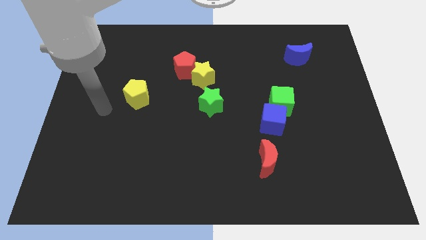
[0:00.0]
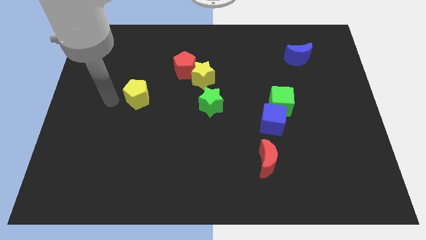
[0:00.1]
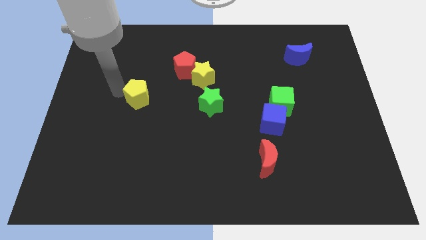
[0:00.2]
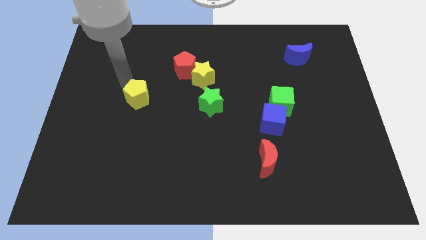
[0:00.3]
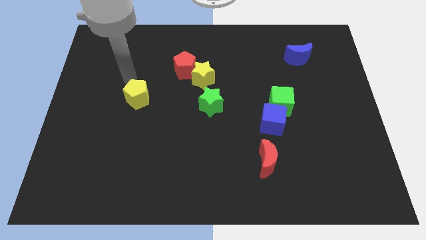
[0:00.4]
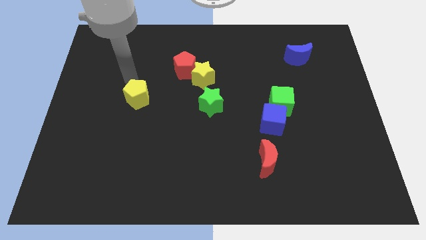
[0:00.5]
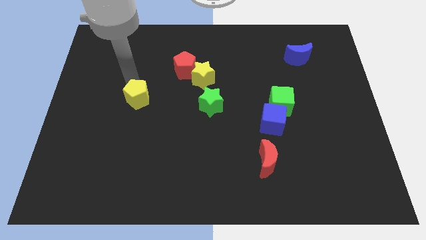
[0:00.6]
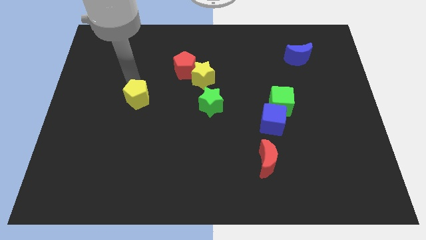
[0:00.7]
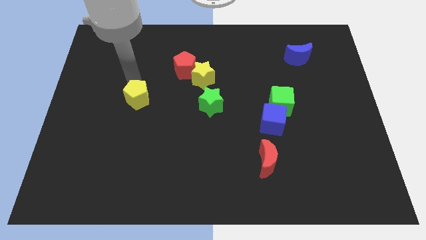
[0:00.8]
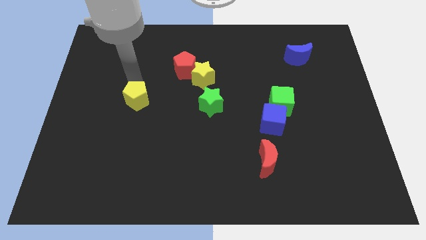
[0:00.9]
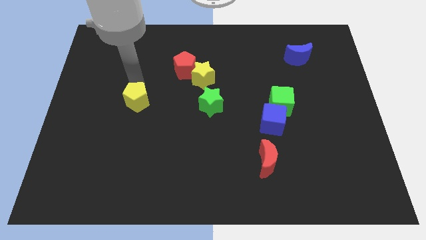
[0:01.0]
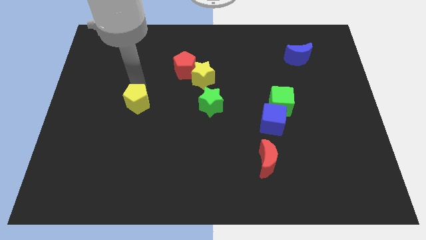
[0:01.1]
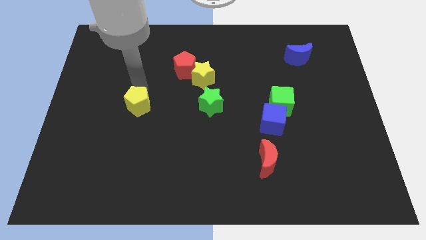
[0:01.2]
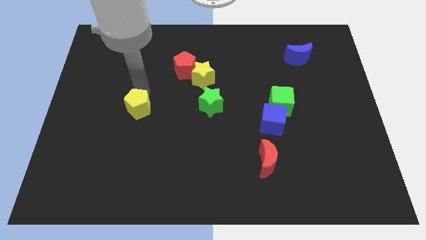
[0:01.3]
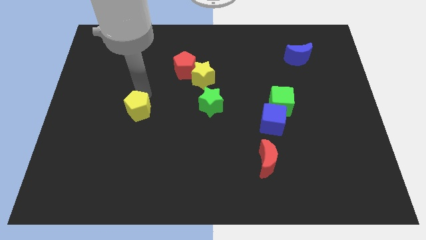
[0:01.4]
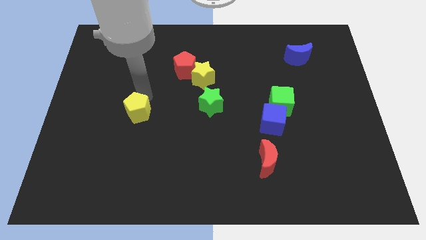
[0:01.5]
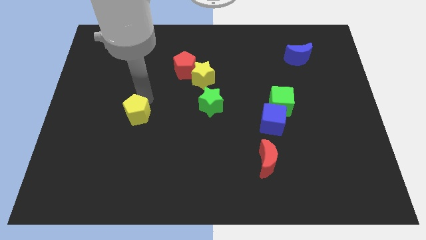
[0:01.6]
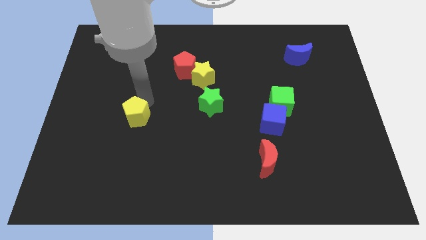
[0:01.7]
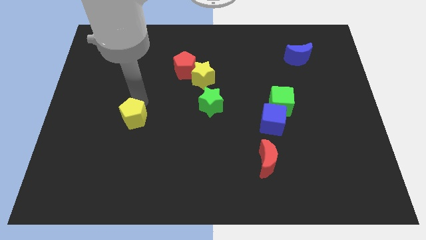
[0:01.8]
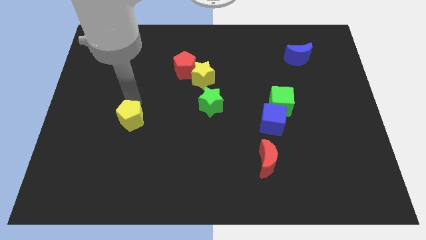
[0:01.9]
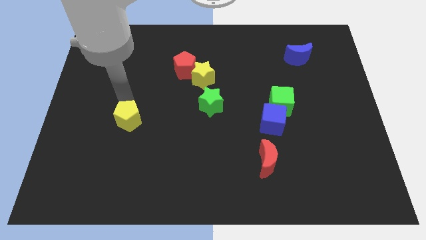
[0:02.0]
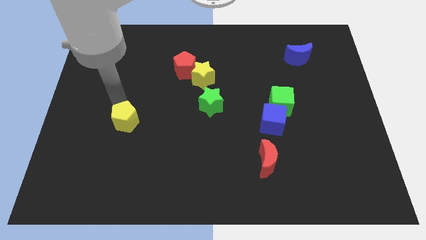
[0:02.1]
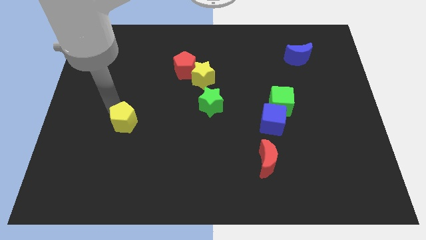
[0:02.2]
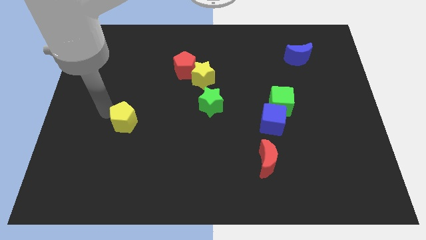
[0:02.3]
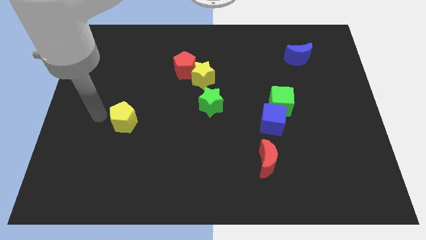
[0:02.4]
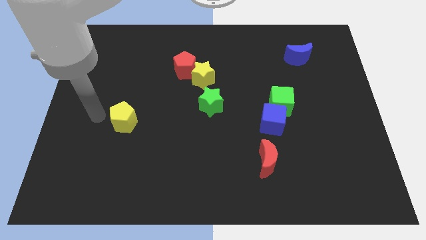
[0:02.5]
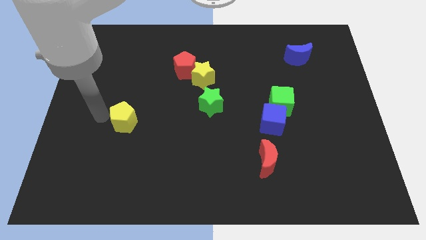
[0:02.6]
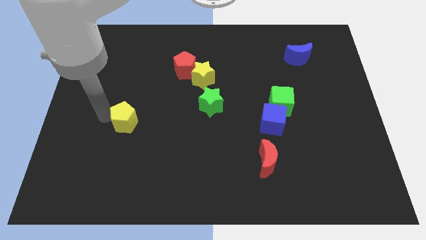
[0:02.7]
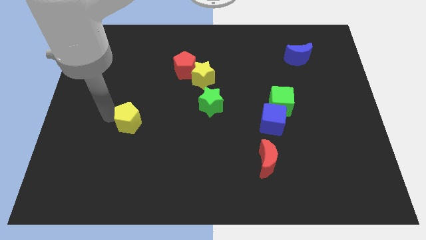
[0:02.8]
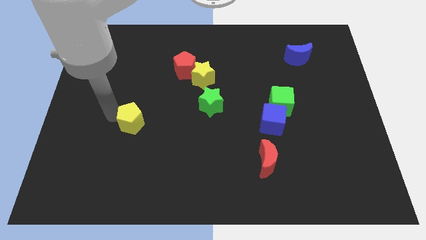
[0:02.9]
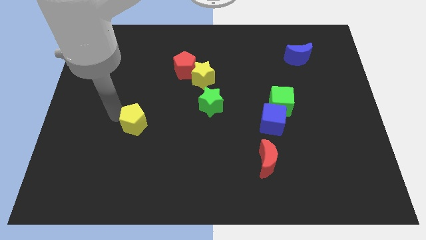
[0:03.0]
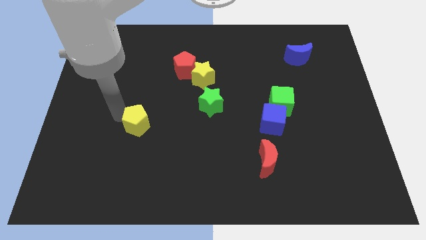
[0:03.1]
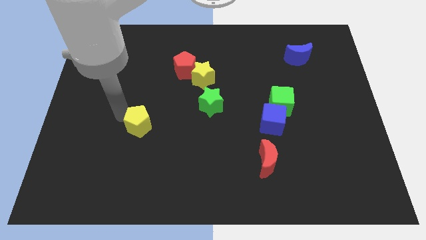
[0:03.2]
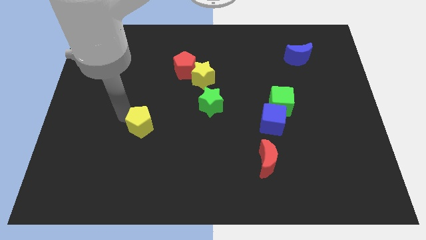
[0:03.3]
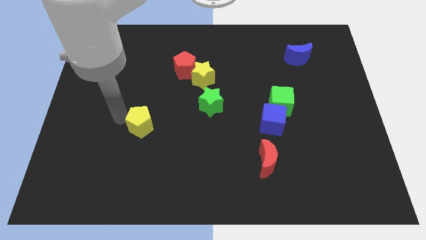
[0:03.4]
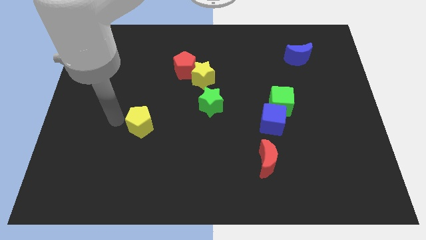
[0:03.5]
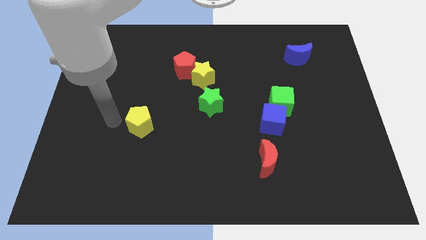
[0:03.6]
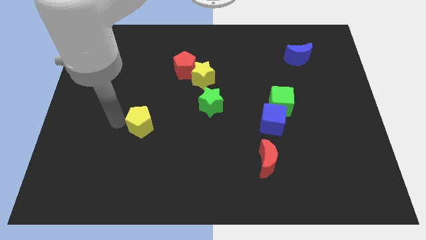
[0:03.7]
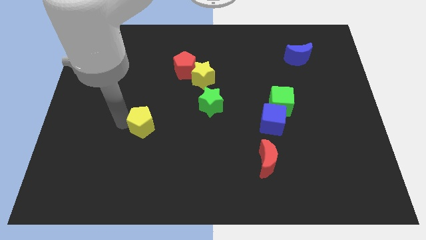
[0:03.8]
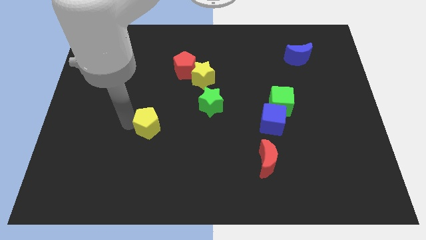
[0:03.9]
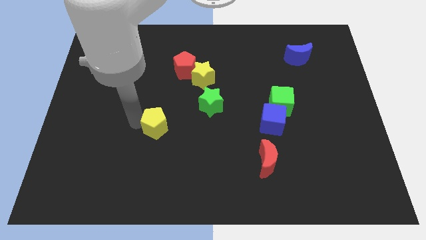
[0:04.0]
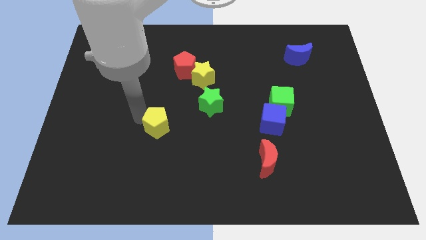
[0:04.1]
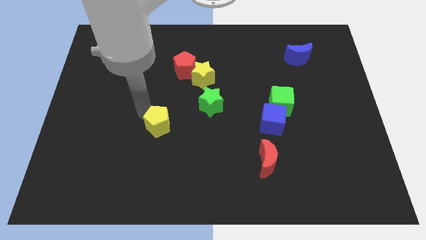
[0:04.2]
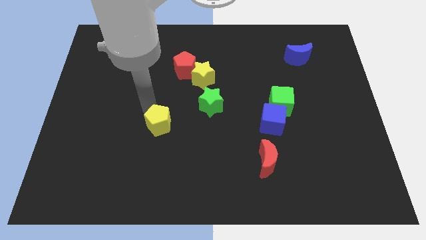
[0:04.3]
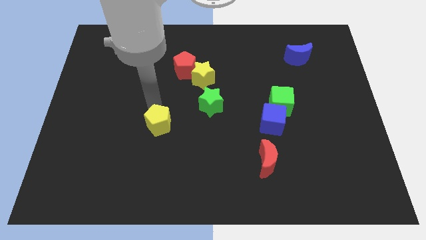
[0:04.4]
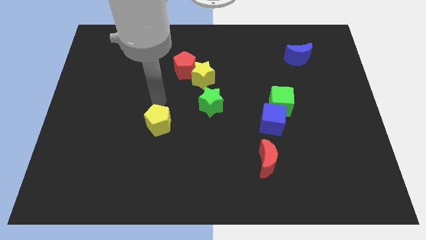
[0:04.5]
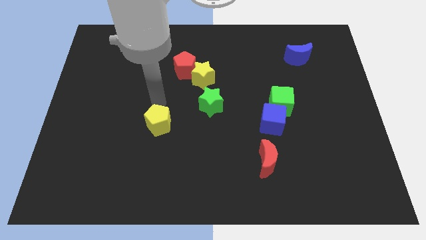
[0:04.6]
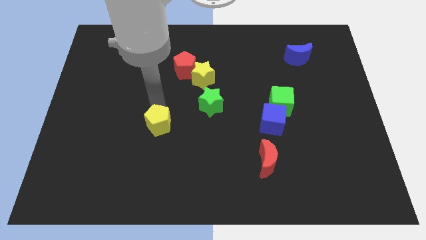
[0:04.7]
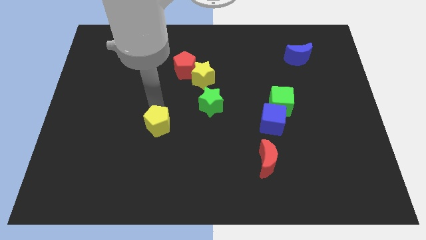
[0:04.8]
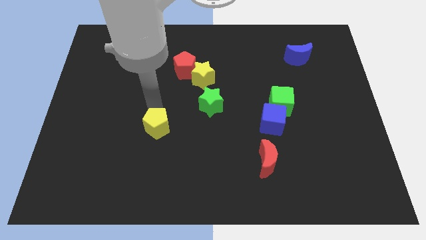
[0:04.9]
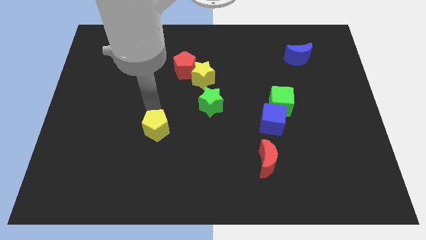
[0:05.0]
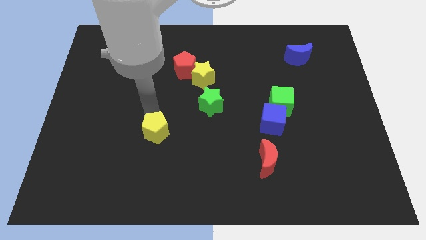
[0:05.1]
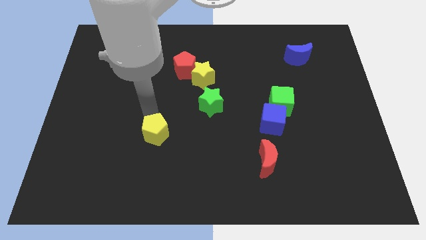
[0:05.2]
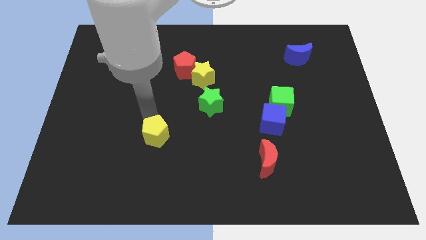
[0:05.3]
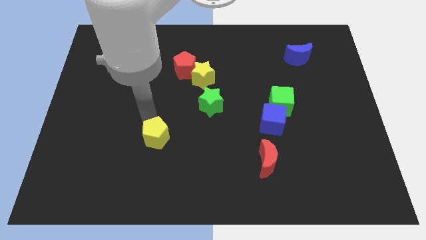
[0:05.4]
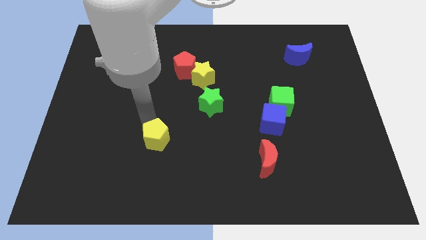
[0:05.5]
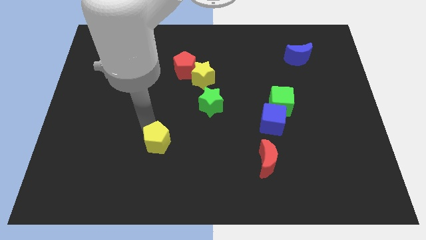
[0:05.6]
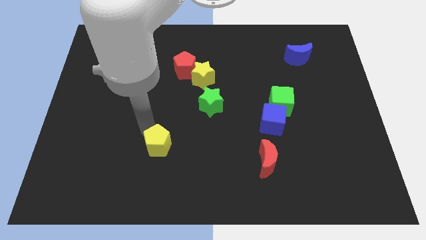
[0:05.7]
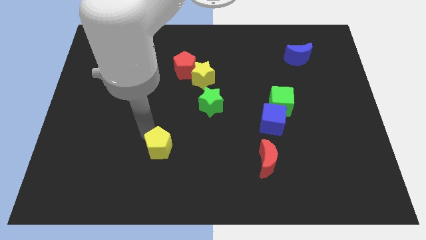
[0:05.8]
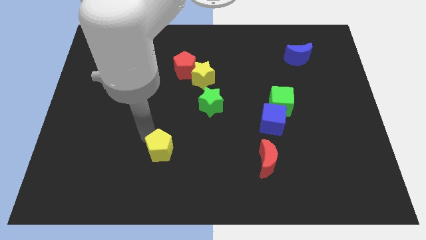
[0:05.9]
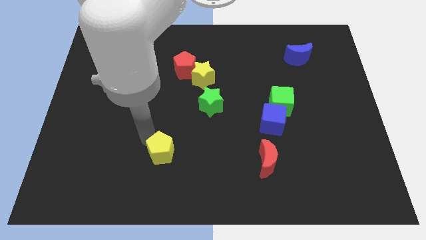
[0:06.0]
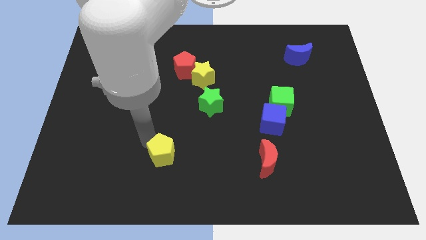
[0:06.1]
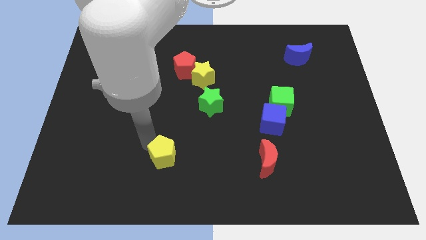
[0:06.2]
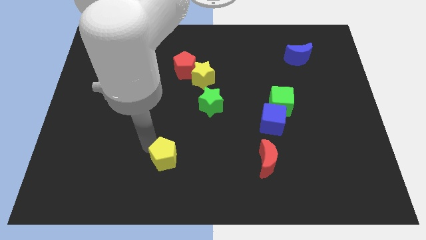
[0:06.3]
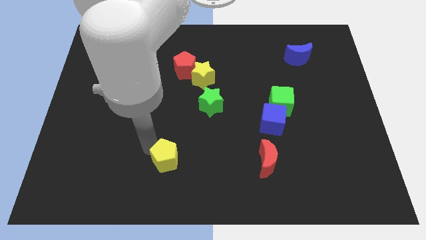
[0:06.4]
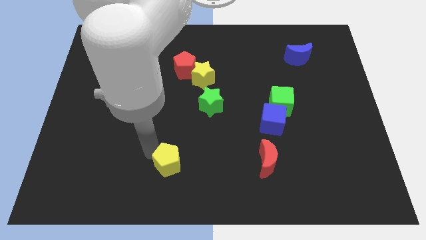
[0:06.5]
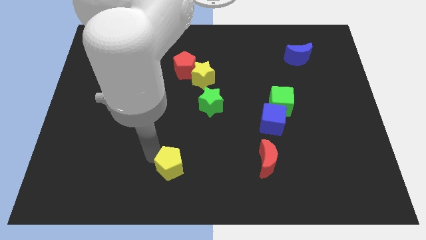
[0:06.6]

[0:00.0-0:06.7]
put the yellow pentagon to the bottom
